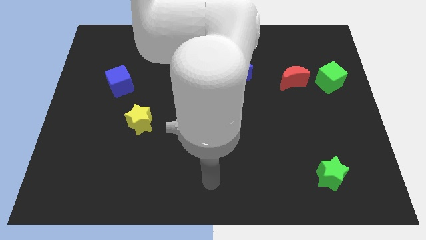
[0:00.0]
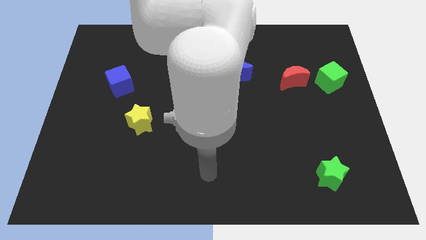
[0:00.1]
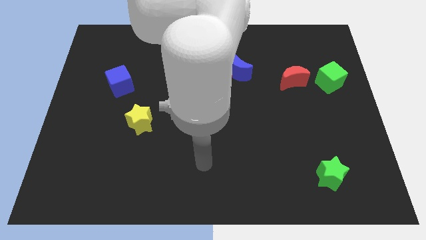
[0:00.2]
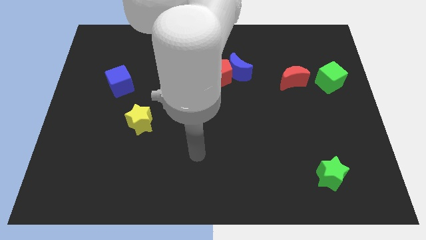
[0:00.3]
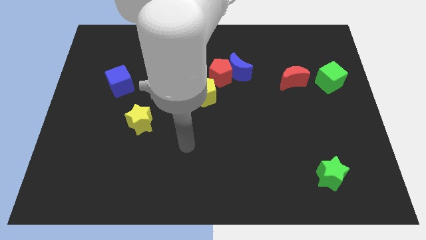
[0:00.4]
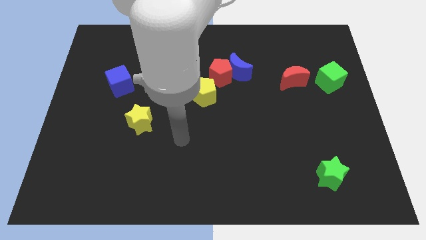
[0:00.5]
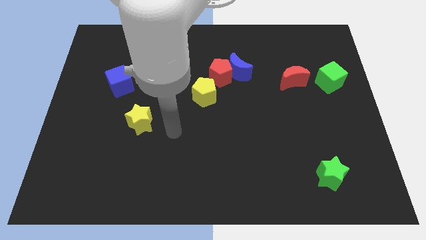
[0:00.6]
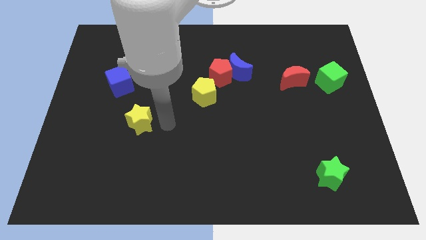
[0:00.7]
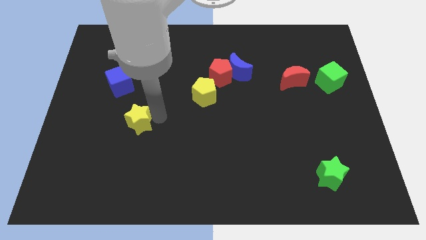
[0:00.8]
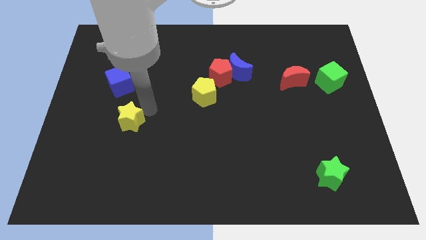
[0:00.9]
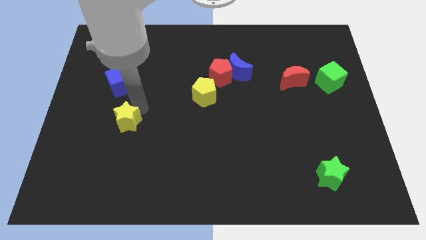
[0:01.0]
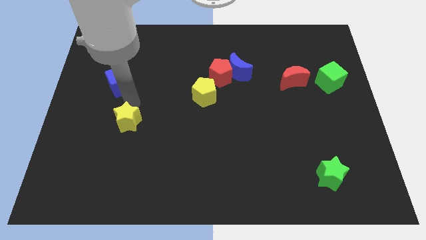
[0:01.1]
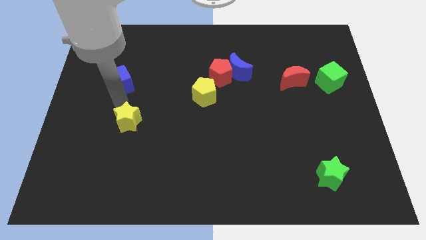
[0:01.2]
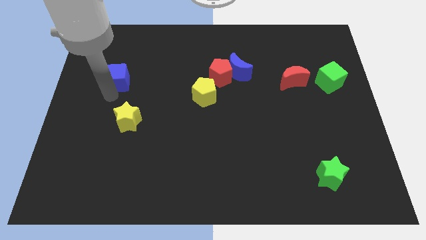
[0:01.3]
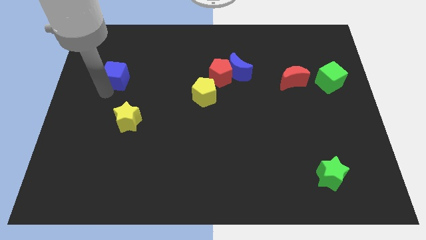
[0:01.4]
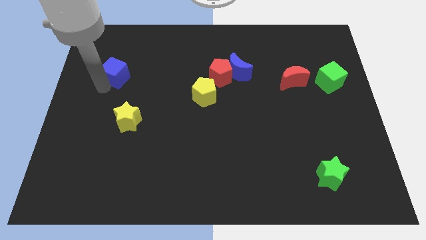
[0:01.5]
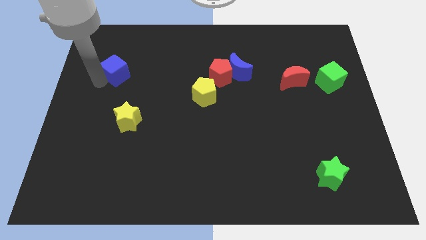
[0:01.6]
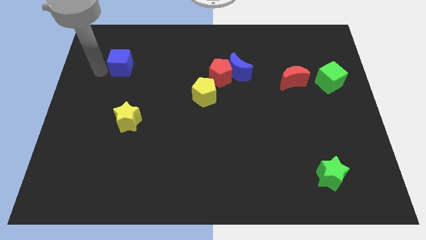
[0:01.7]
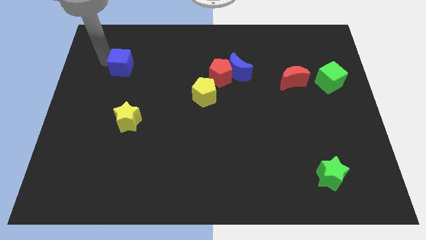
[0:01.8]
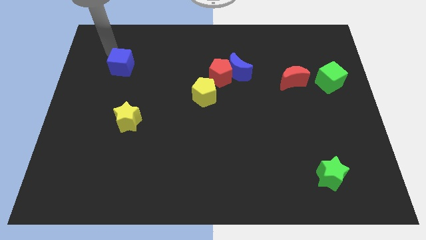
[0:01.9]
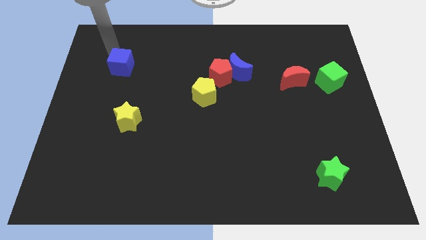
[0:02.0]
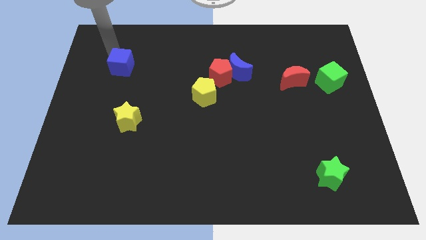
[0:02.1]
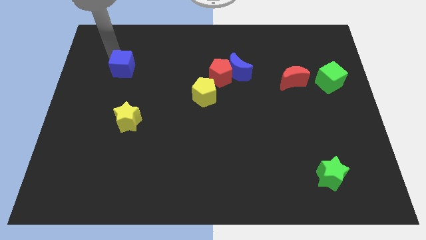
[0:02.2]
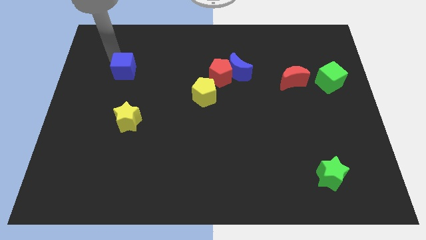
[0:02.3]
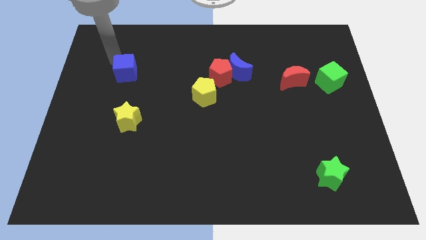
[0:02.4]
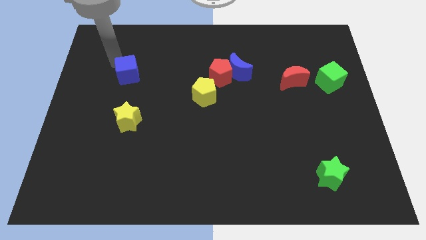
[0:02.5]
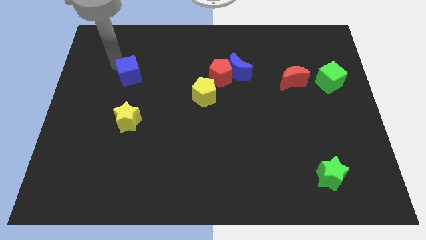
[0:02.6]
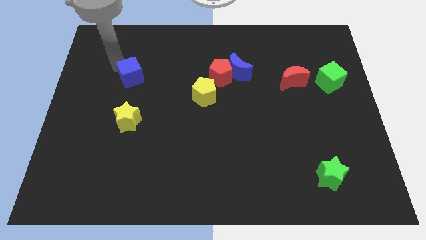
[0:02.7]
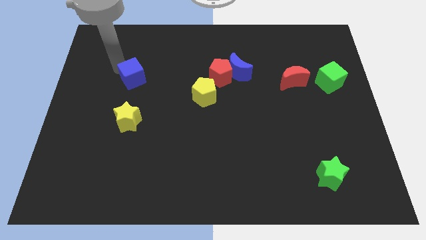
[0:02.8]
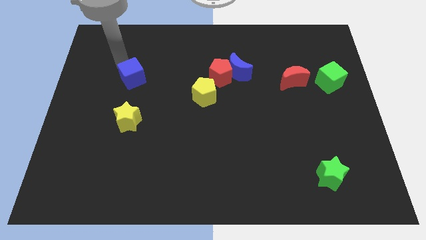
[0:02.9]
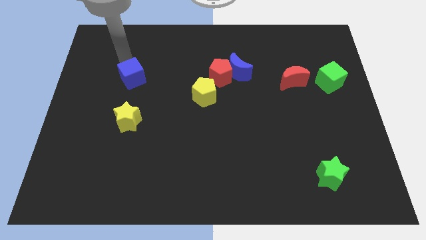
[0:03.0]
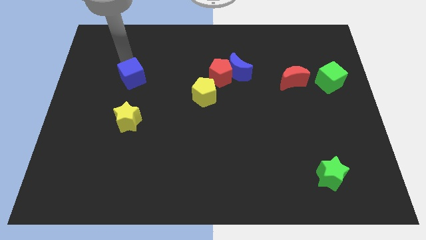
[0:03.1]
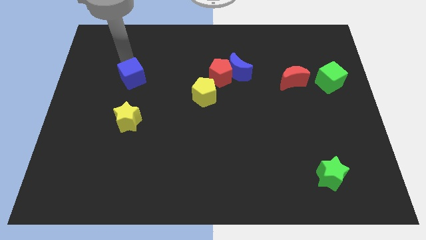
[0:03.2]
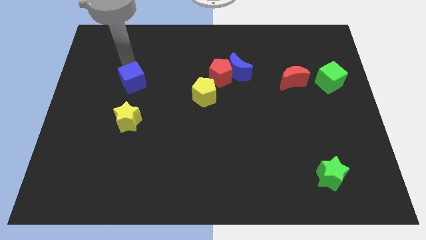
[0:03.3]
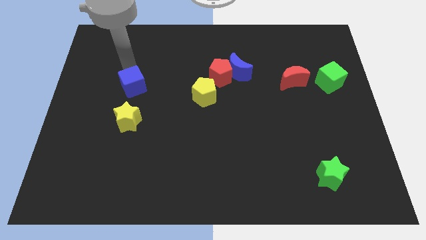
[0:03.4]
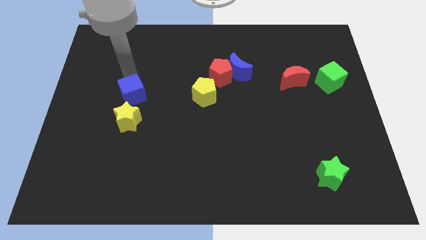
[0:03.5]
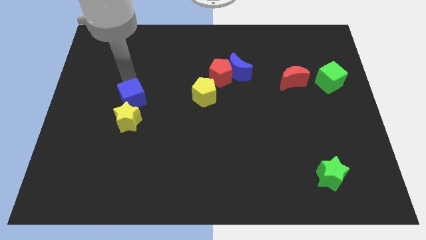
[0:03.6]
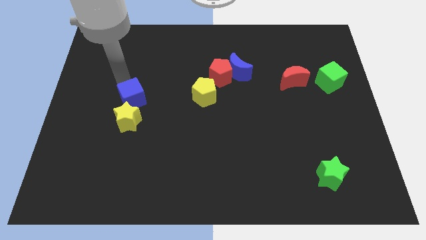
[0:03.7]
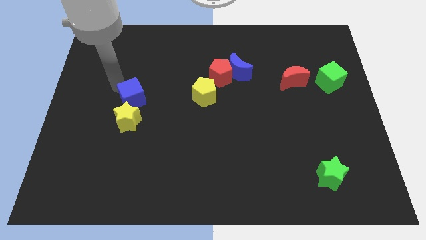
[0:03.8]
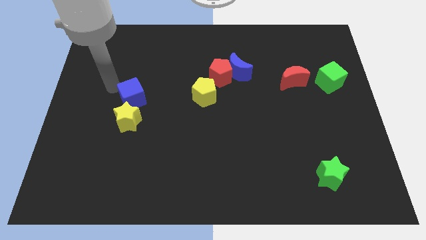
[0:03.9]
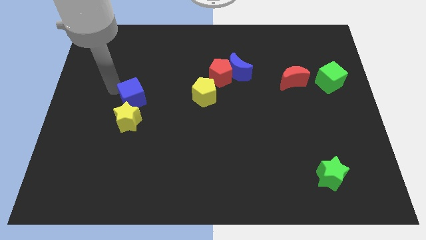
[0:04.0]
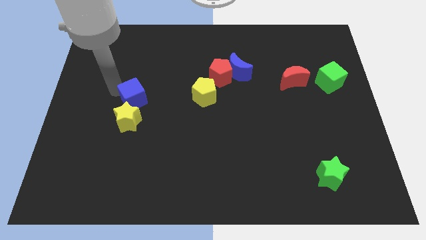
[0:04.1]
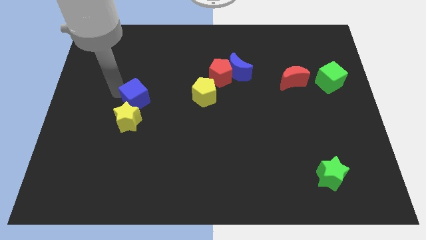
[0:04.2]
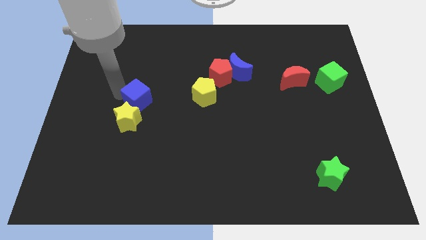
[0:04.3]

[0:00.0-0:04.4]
slightly move the blue cube down and to the right

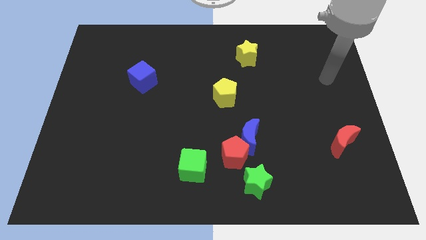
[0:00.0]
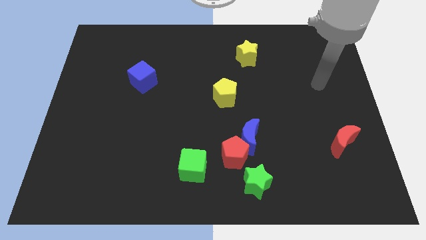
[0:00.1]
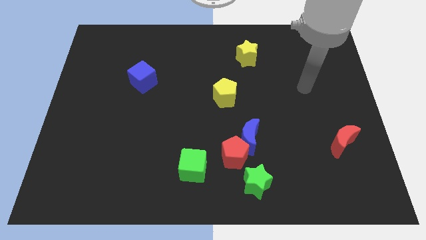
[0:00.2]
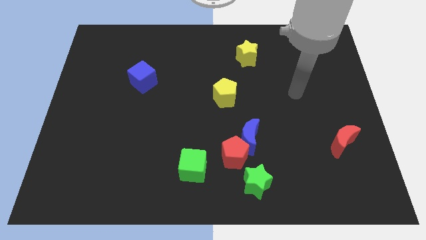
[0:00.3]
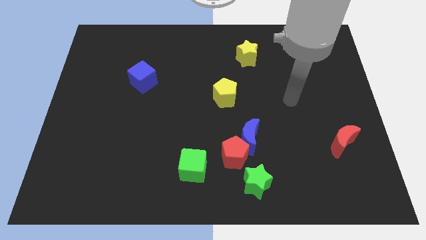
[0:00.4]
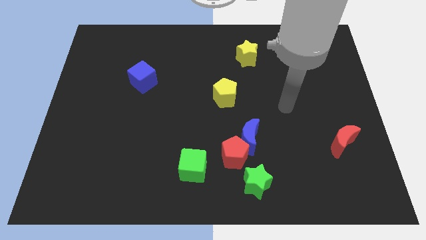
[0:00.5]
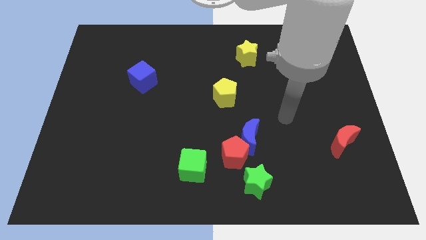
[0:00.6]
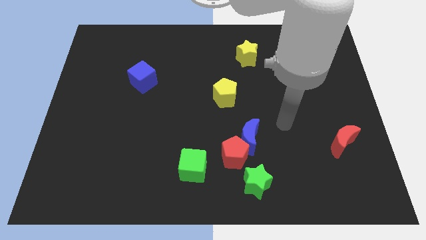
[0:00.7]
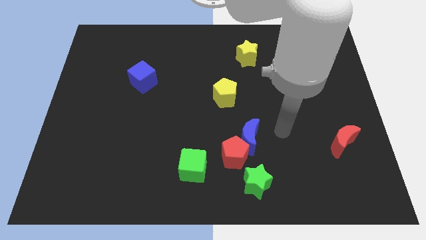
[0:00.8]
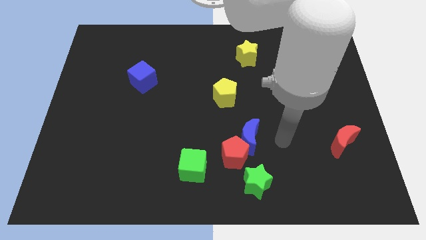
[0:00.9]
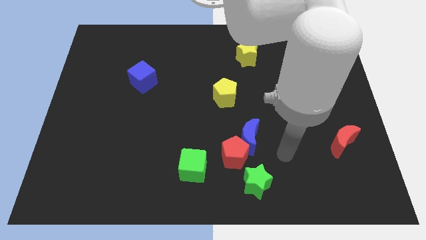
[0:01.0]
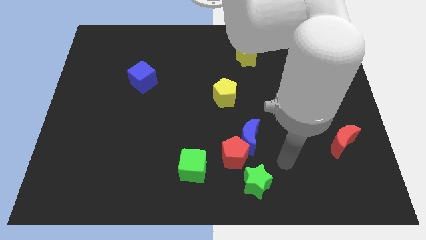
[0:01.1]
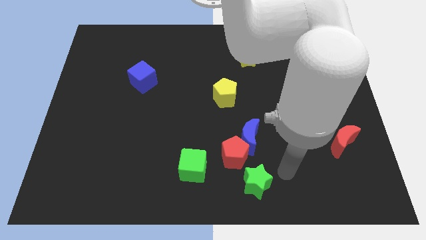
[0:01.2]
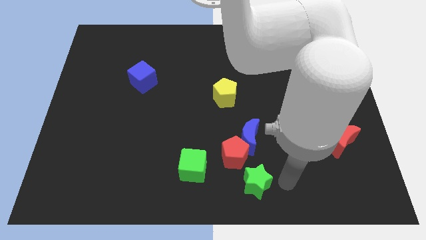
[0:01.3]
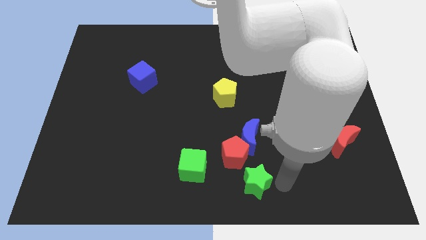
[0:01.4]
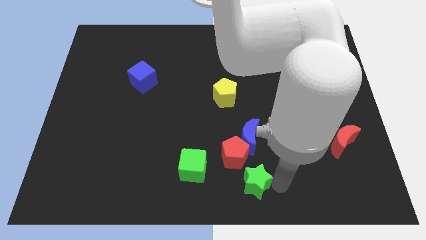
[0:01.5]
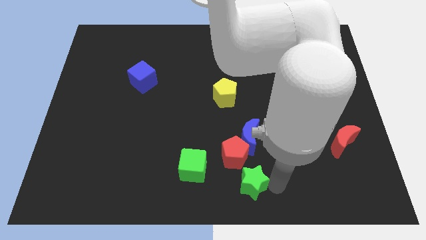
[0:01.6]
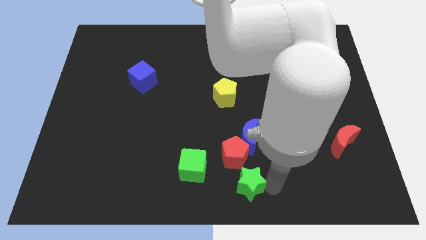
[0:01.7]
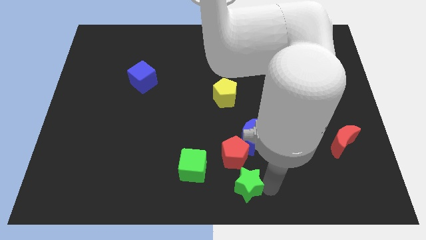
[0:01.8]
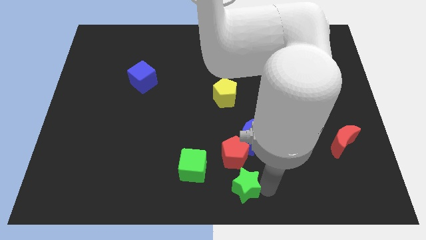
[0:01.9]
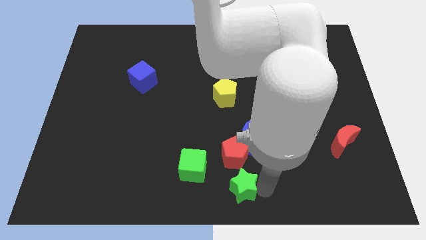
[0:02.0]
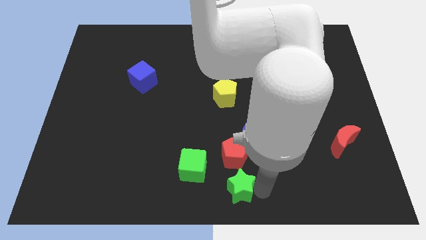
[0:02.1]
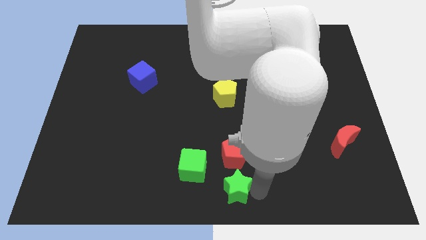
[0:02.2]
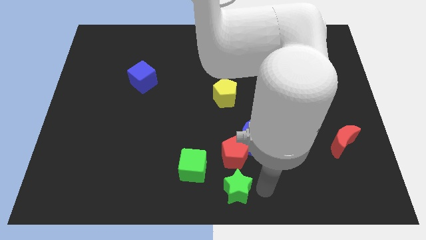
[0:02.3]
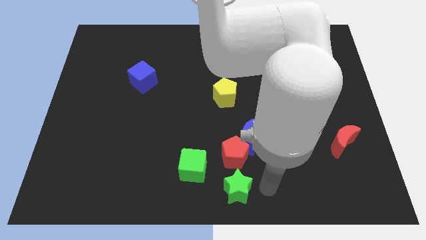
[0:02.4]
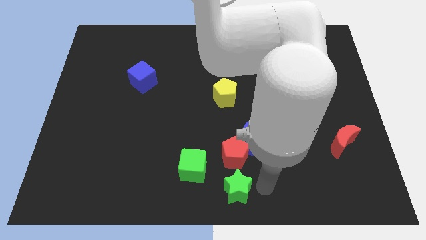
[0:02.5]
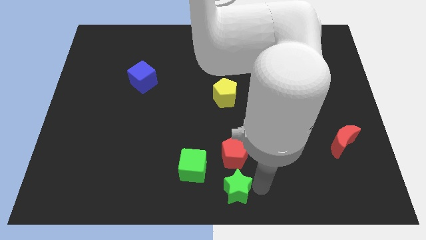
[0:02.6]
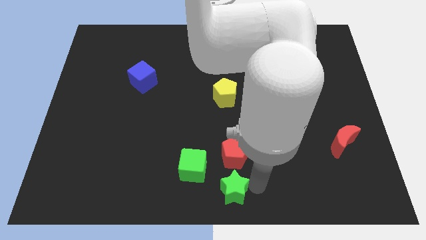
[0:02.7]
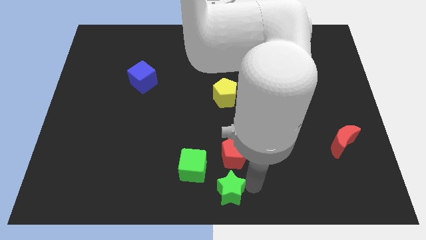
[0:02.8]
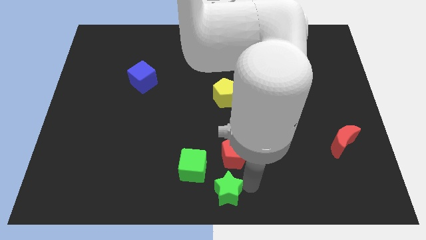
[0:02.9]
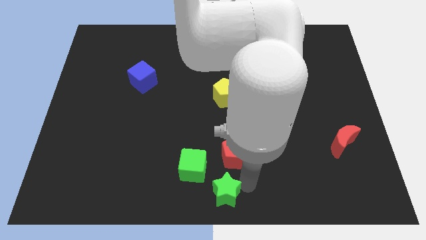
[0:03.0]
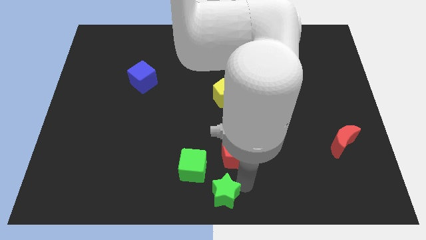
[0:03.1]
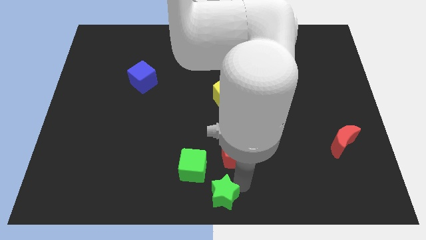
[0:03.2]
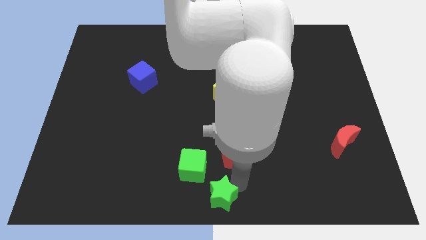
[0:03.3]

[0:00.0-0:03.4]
move the green star to the left slightly

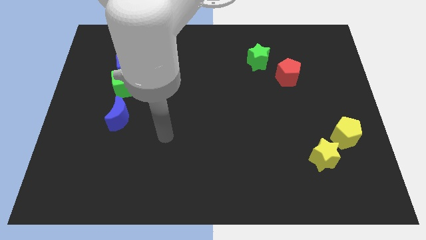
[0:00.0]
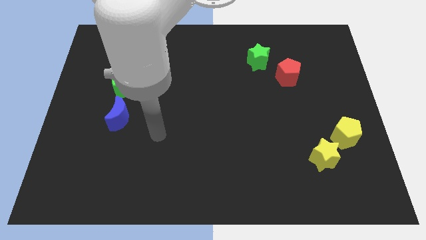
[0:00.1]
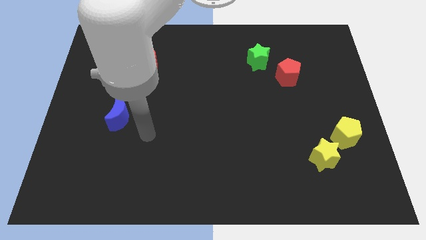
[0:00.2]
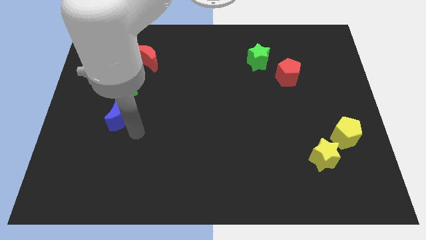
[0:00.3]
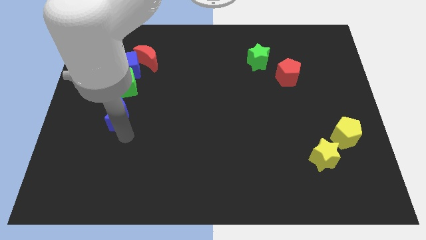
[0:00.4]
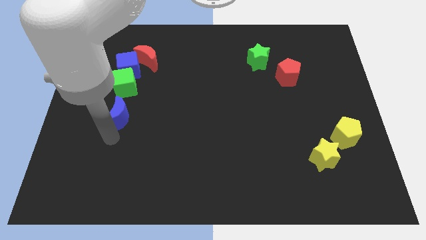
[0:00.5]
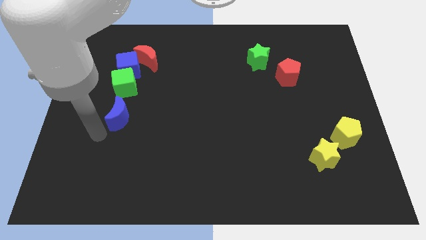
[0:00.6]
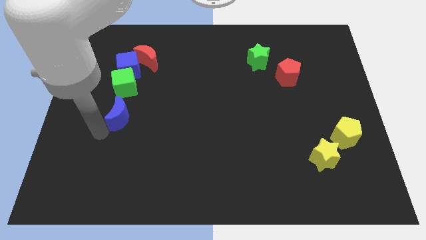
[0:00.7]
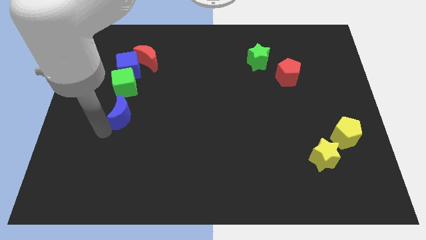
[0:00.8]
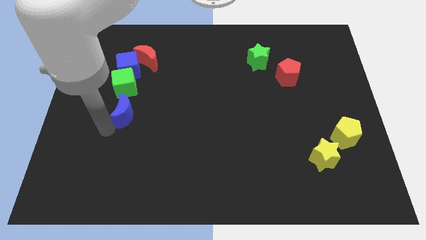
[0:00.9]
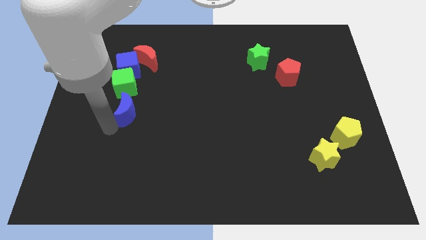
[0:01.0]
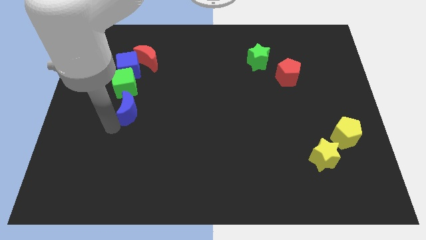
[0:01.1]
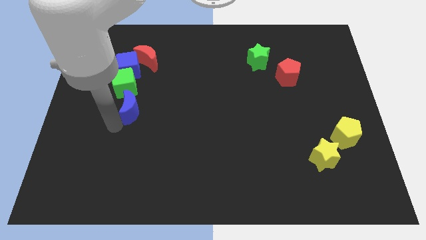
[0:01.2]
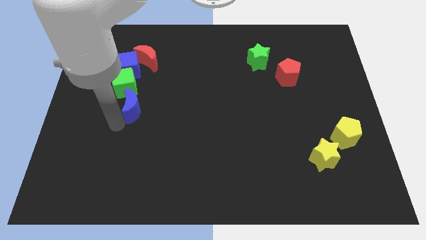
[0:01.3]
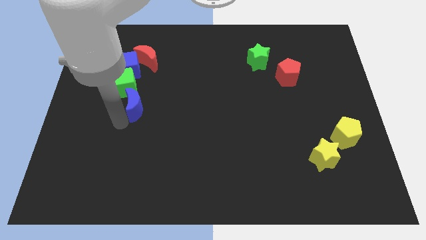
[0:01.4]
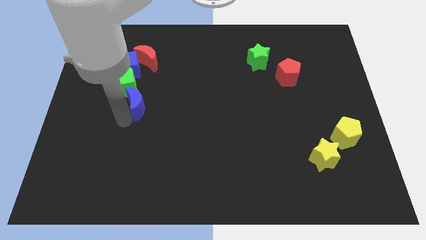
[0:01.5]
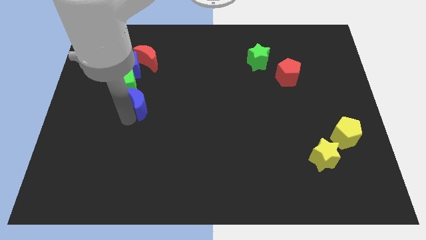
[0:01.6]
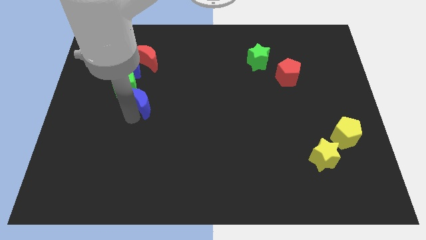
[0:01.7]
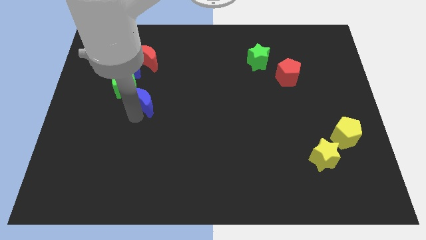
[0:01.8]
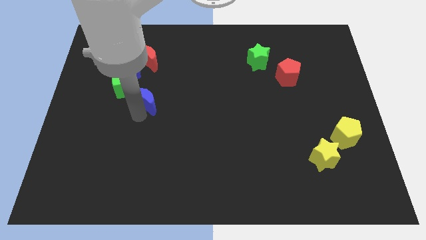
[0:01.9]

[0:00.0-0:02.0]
move the blue moon somewhat up and to the right
